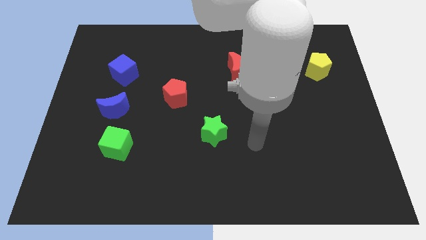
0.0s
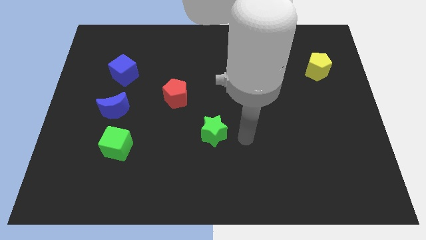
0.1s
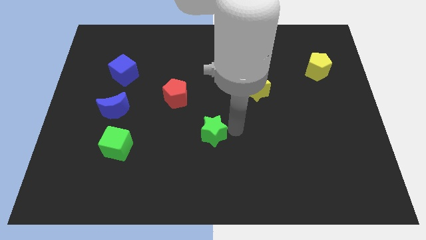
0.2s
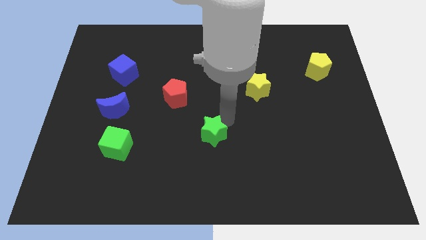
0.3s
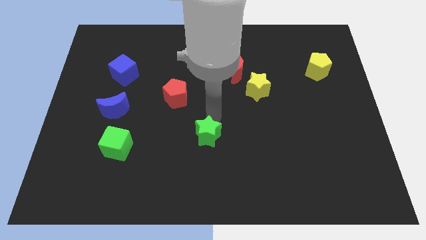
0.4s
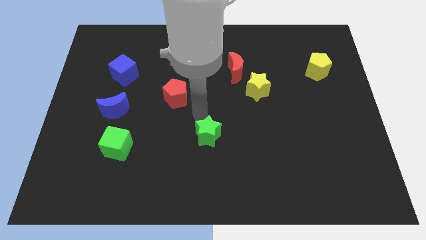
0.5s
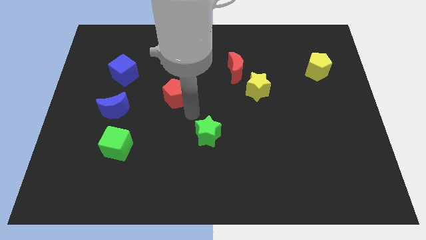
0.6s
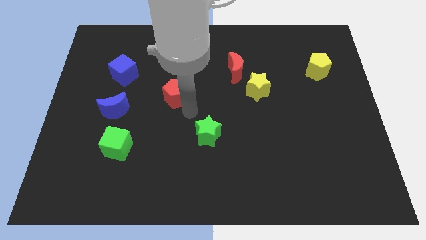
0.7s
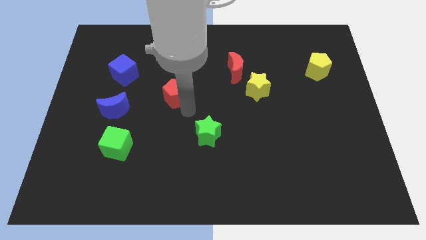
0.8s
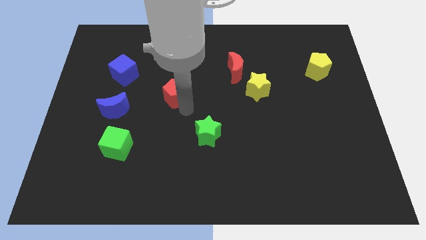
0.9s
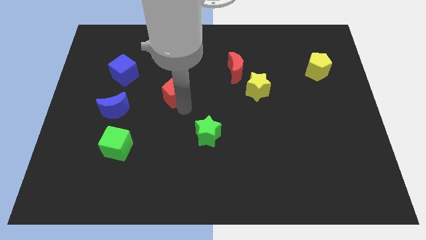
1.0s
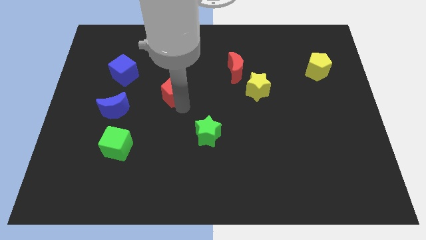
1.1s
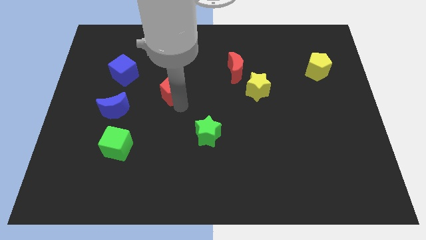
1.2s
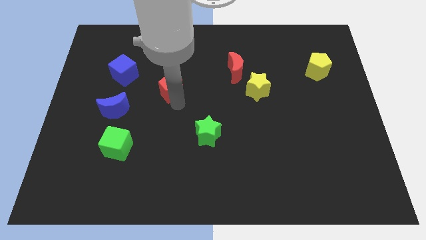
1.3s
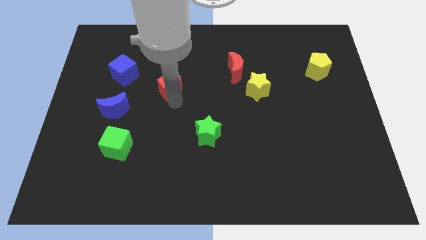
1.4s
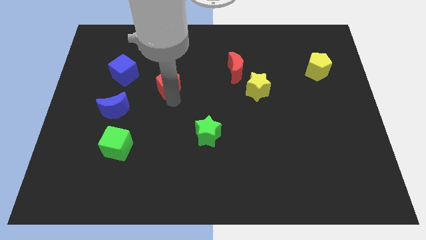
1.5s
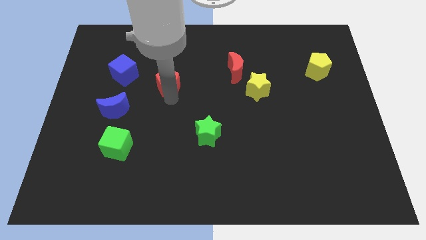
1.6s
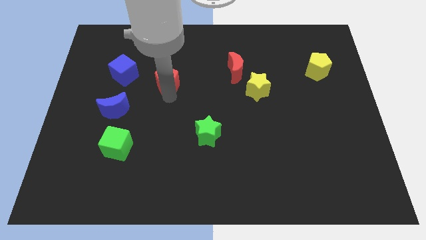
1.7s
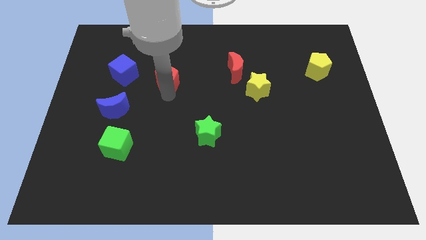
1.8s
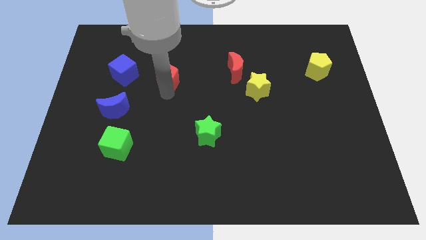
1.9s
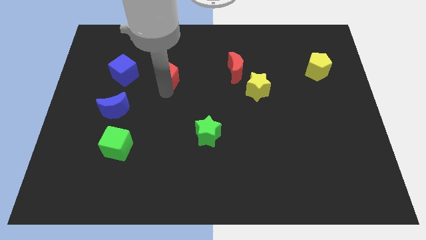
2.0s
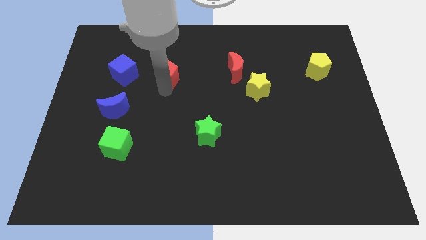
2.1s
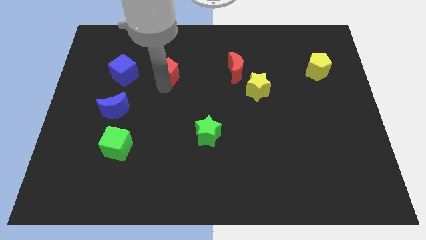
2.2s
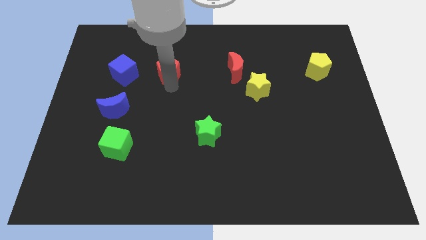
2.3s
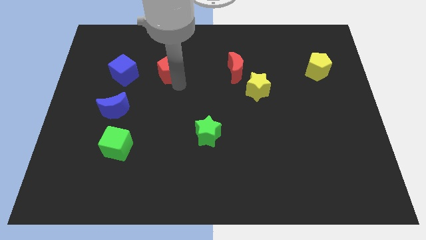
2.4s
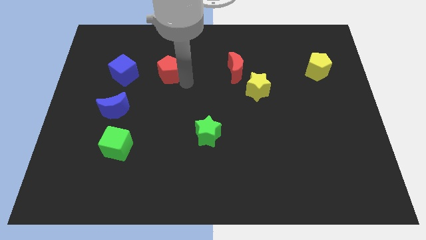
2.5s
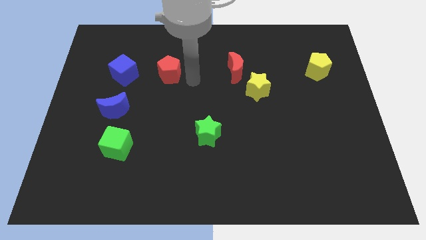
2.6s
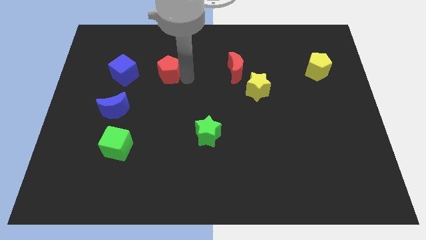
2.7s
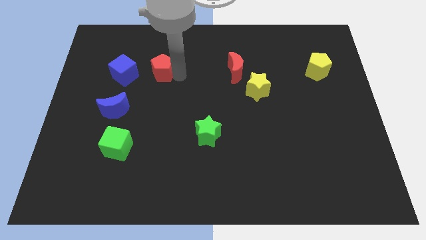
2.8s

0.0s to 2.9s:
slightly push the red pentagon up and to the left diagonally

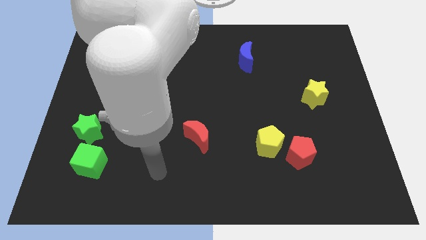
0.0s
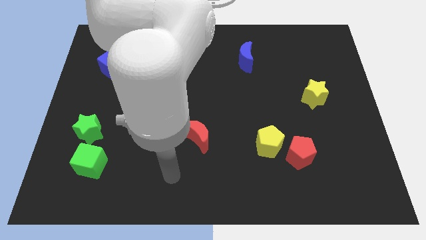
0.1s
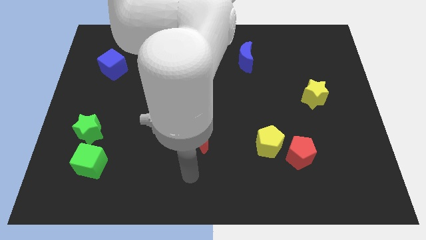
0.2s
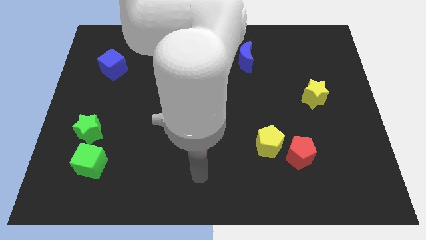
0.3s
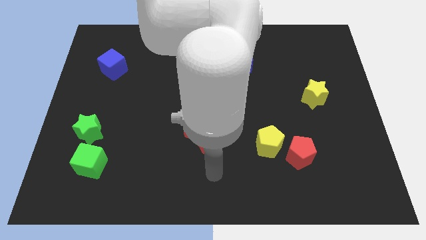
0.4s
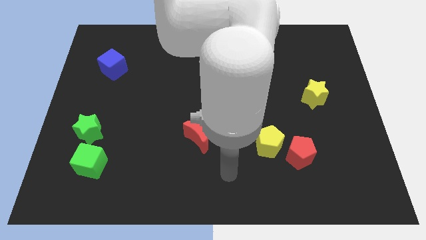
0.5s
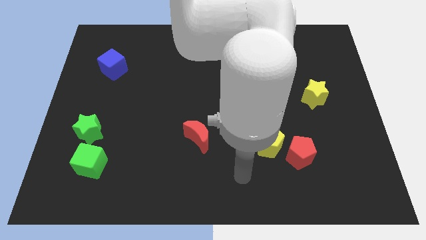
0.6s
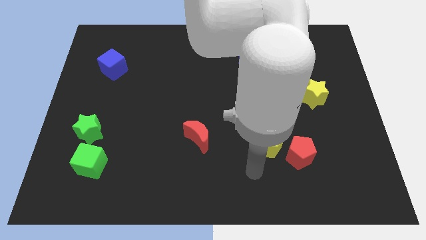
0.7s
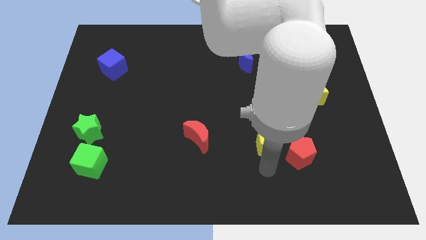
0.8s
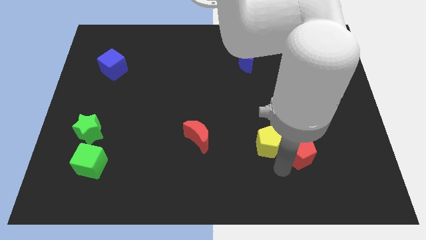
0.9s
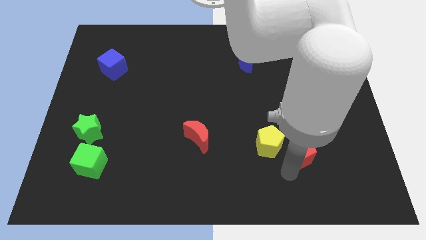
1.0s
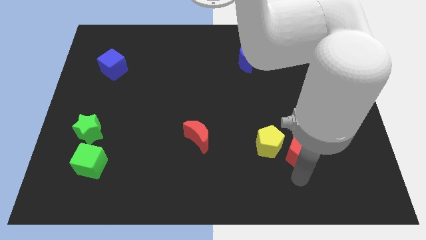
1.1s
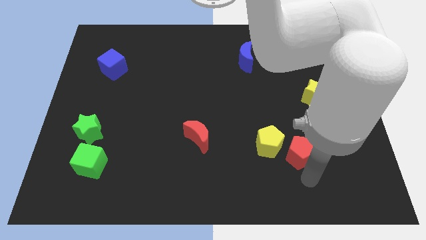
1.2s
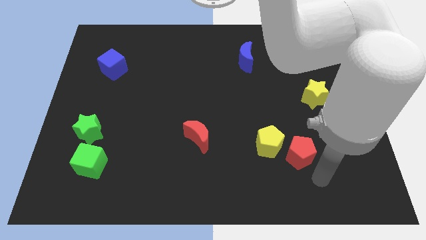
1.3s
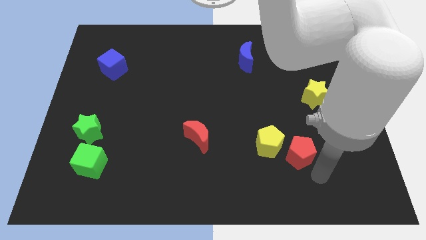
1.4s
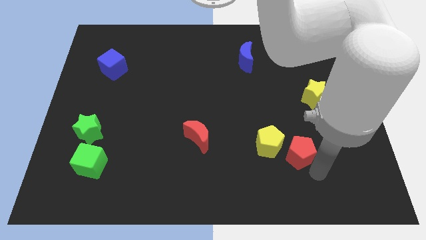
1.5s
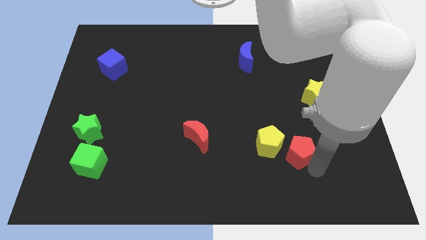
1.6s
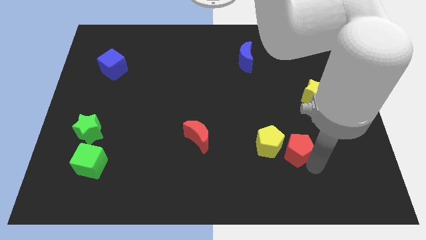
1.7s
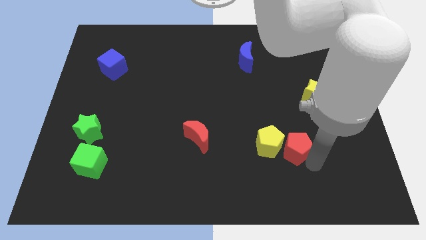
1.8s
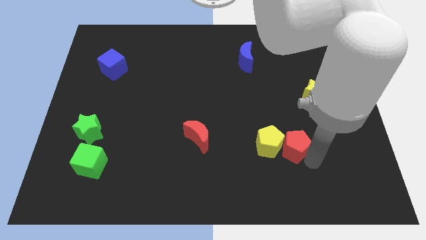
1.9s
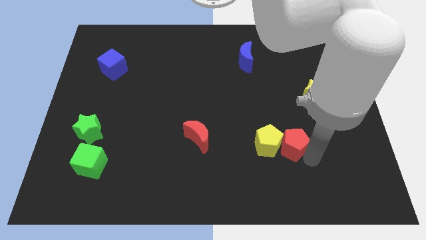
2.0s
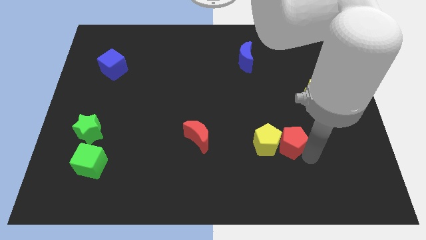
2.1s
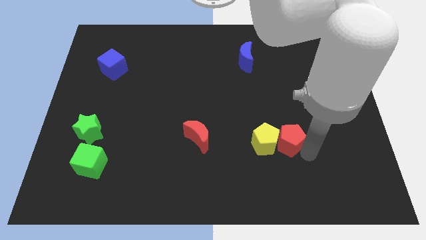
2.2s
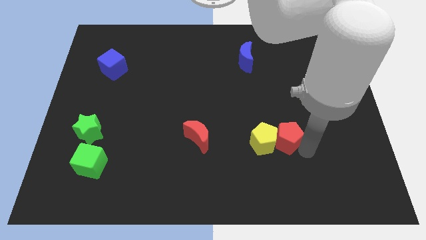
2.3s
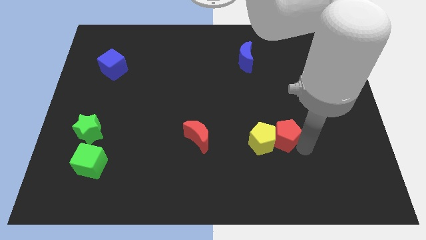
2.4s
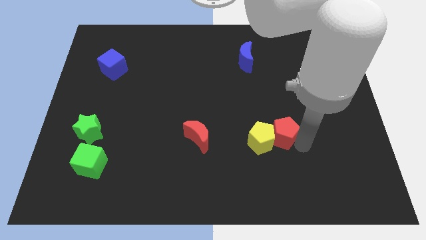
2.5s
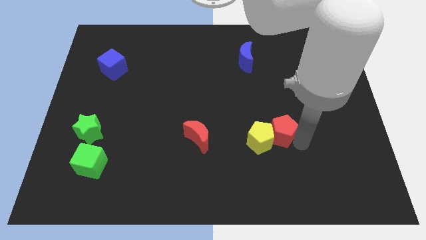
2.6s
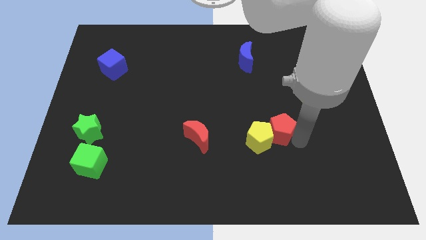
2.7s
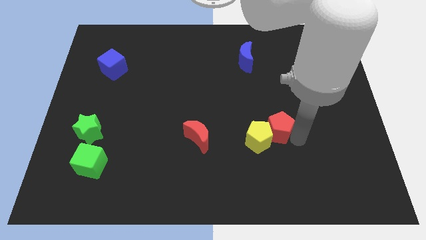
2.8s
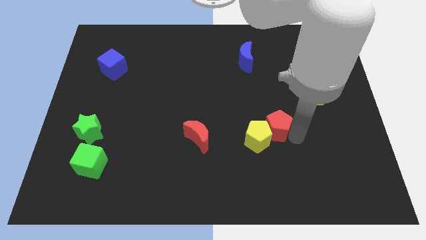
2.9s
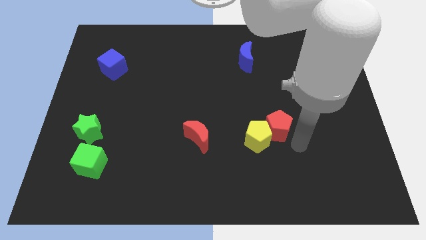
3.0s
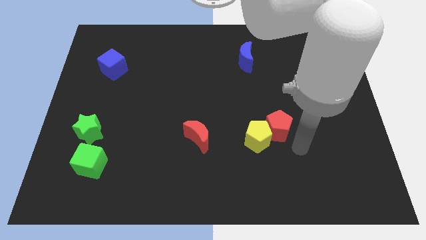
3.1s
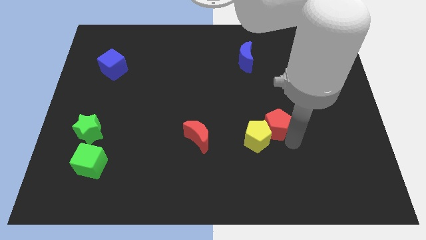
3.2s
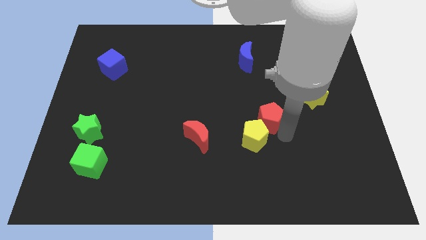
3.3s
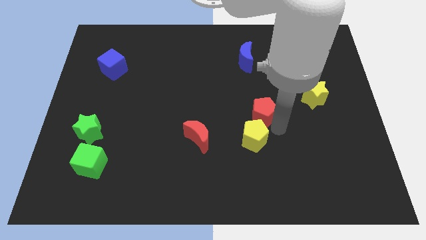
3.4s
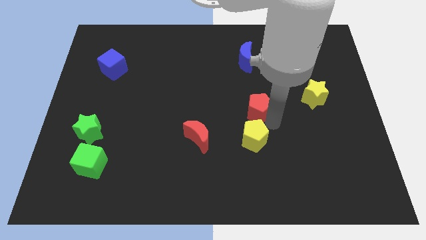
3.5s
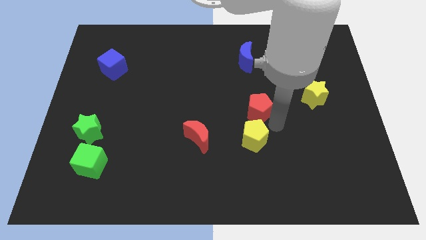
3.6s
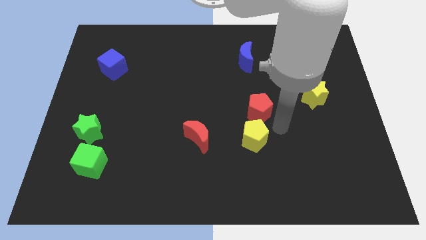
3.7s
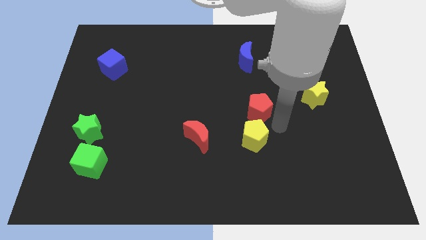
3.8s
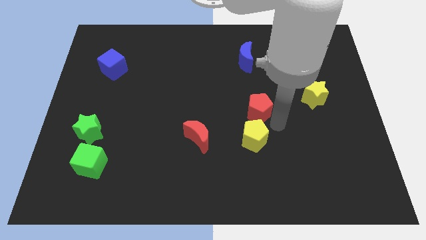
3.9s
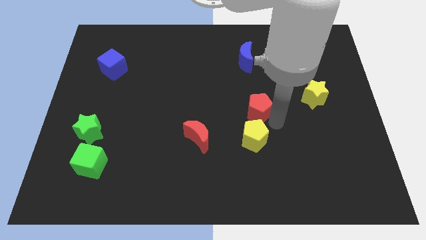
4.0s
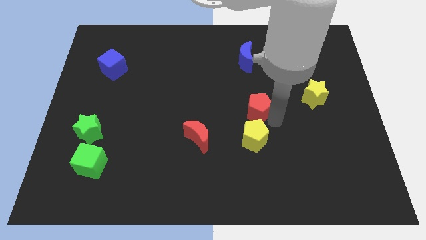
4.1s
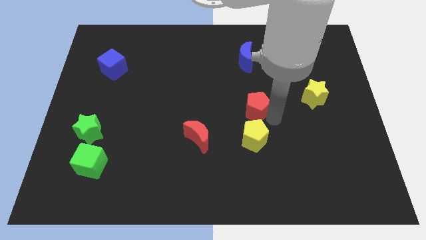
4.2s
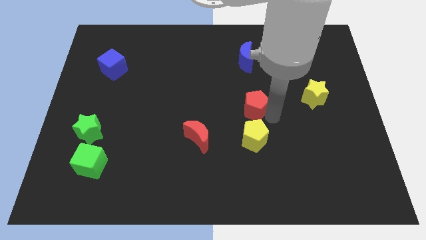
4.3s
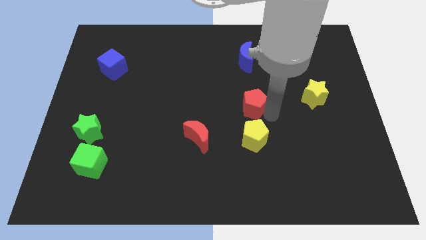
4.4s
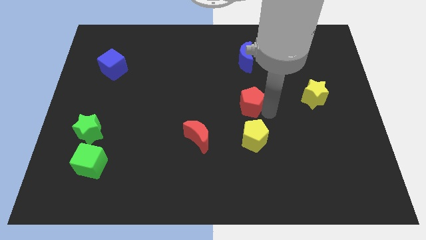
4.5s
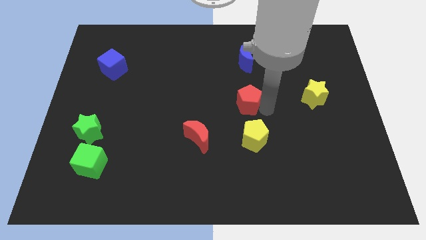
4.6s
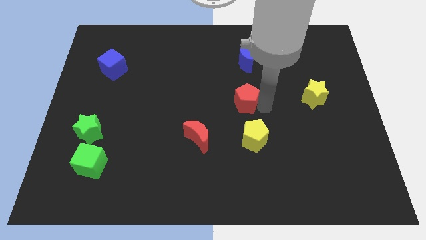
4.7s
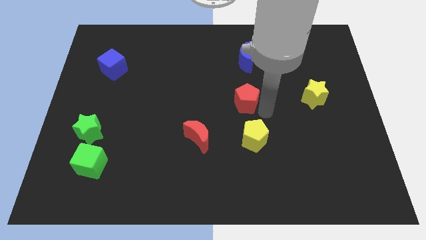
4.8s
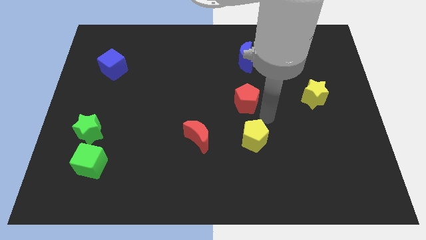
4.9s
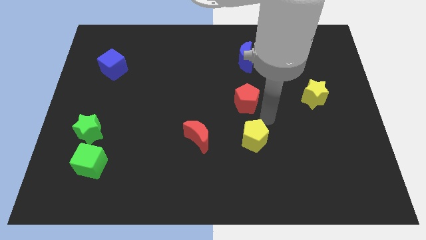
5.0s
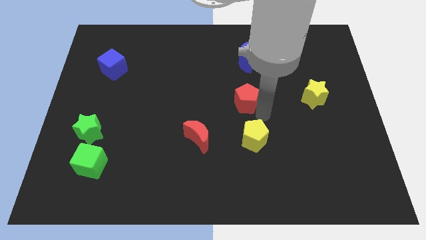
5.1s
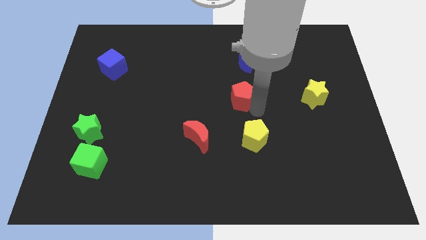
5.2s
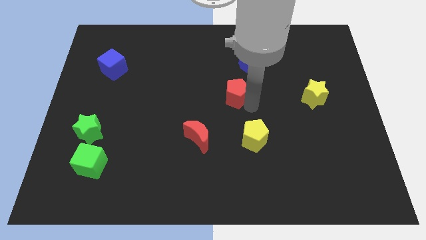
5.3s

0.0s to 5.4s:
slide the red pentagon upwards and to the left diagonally
